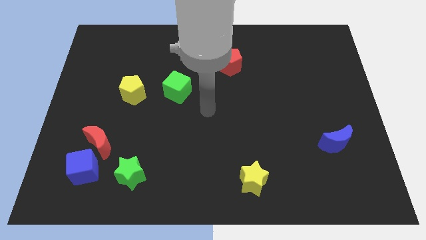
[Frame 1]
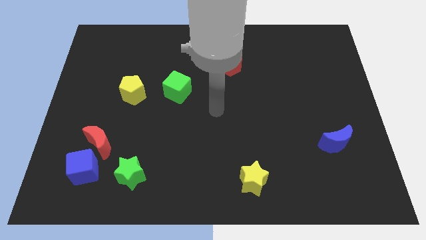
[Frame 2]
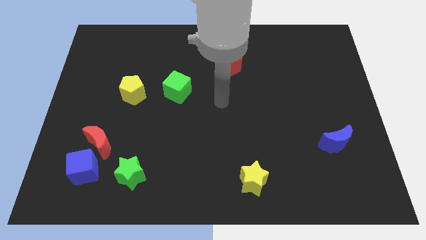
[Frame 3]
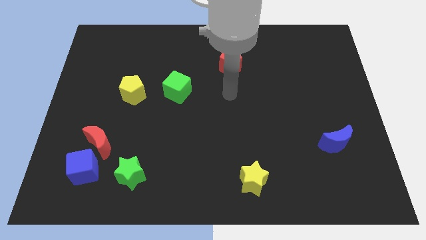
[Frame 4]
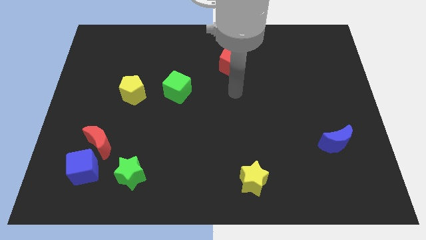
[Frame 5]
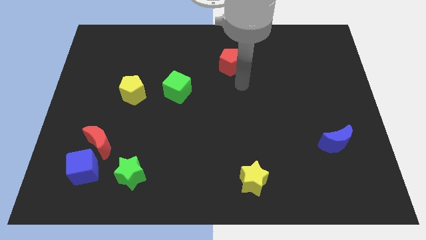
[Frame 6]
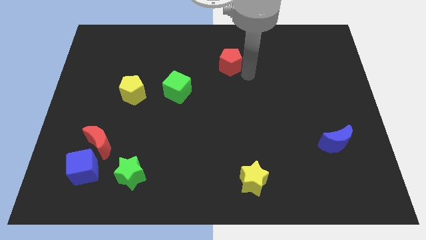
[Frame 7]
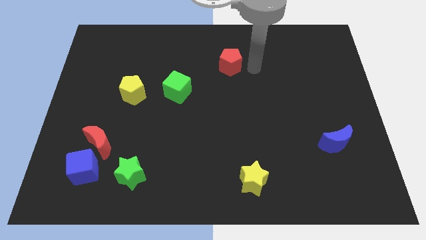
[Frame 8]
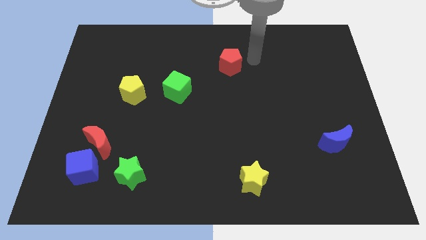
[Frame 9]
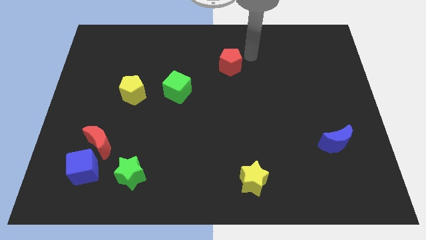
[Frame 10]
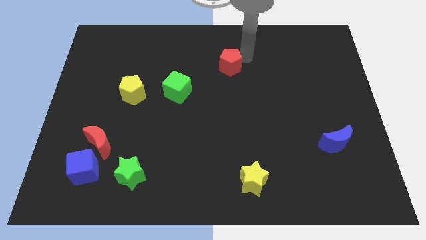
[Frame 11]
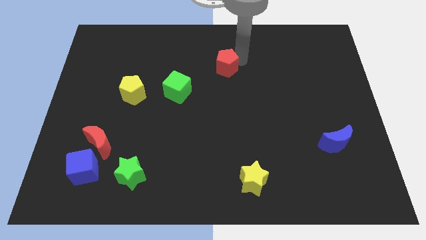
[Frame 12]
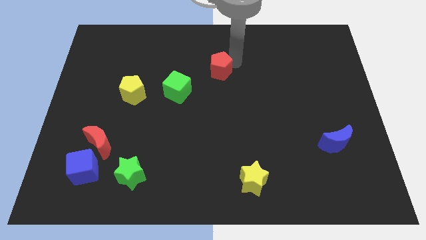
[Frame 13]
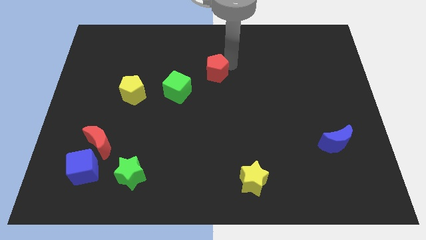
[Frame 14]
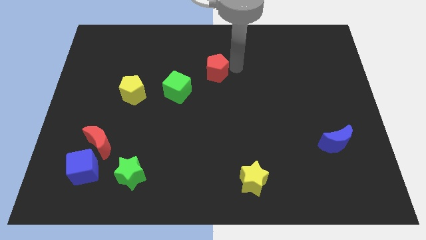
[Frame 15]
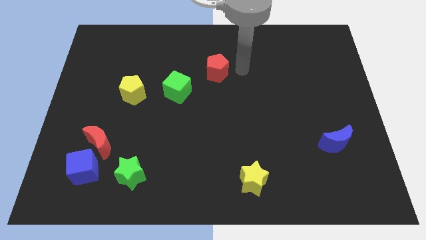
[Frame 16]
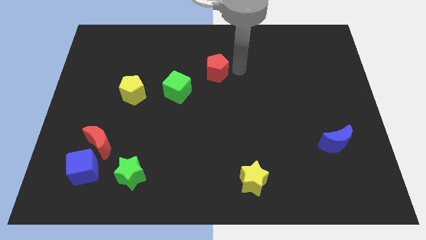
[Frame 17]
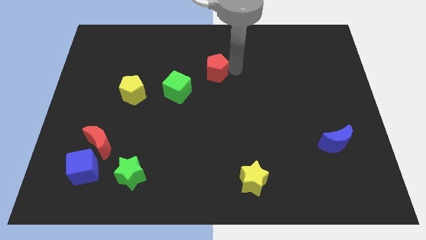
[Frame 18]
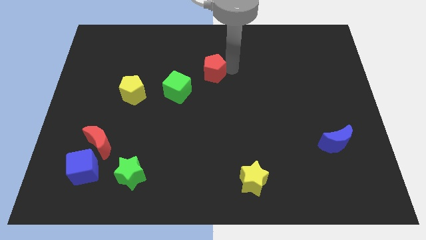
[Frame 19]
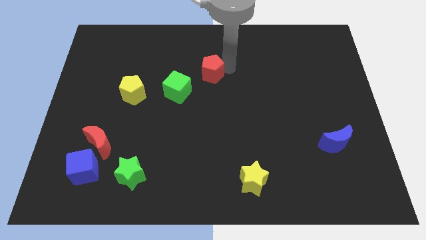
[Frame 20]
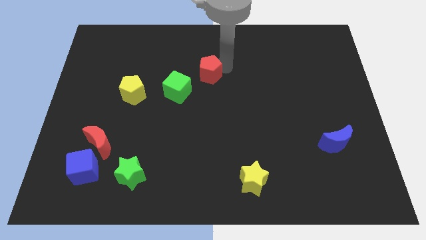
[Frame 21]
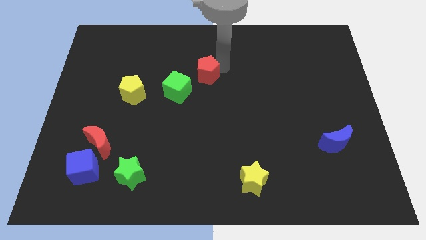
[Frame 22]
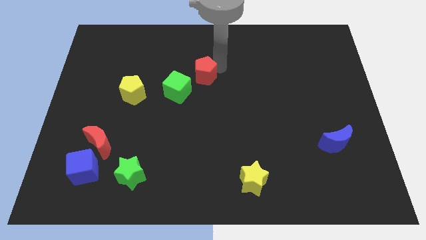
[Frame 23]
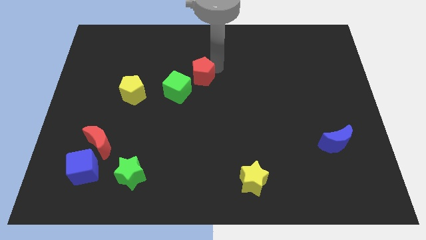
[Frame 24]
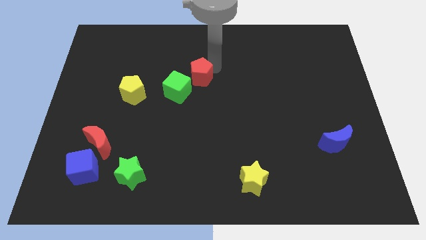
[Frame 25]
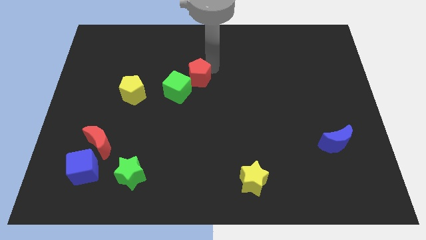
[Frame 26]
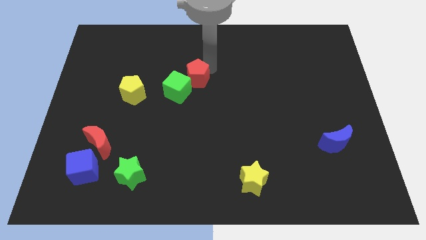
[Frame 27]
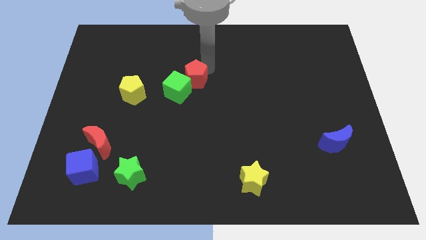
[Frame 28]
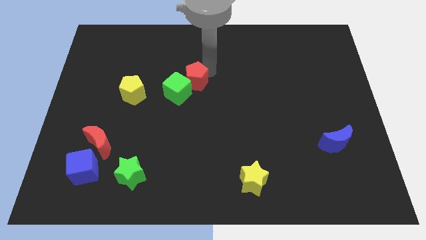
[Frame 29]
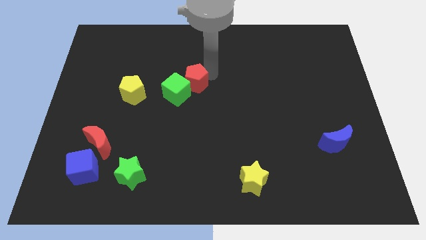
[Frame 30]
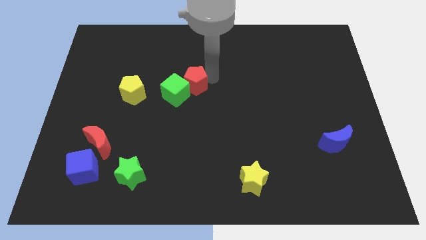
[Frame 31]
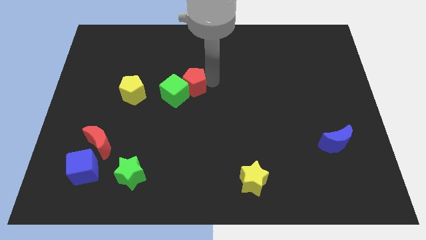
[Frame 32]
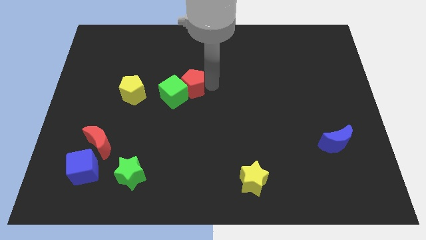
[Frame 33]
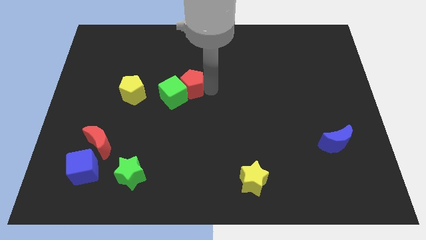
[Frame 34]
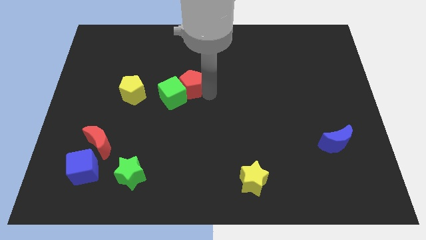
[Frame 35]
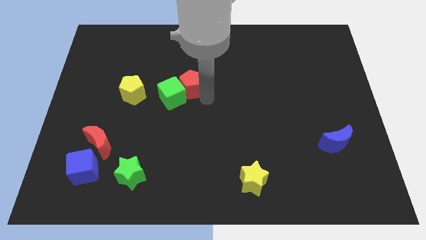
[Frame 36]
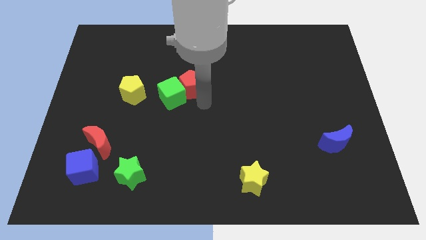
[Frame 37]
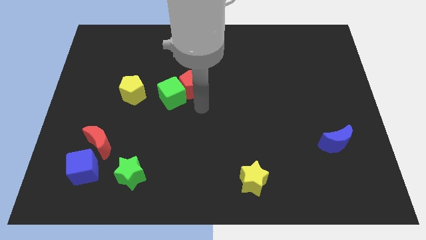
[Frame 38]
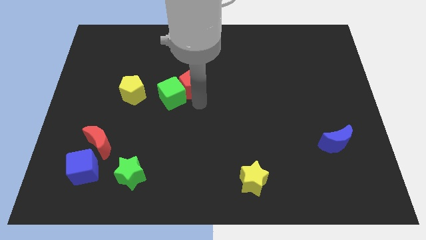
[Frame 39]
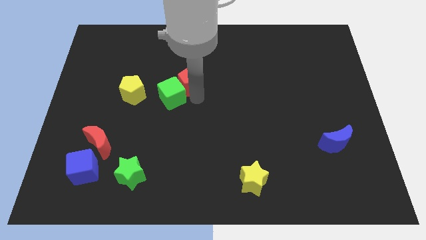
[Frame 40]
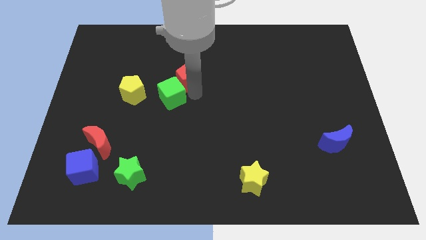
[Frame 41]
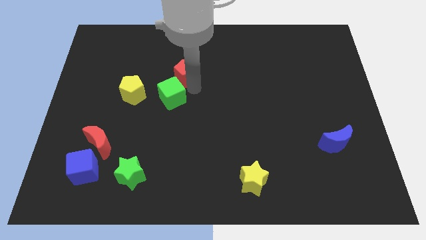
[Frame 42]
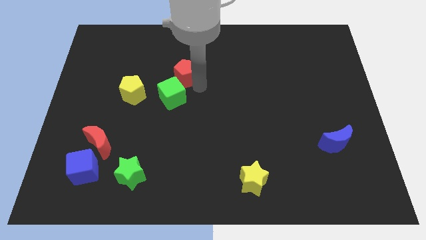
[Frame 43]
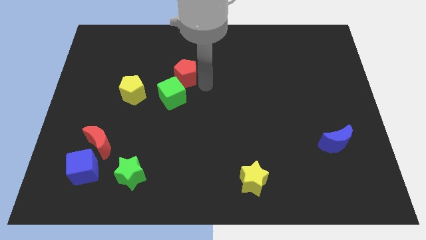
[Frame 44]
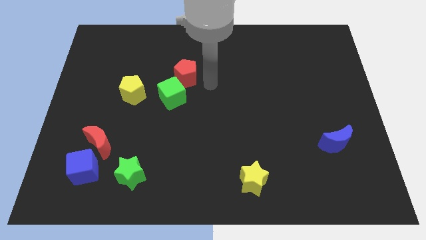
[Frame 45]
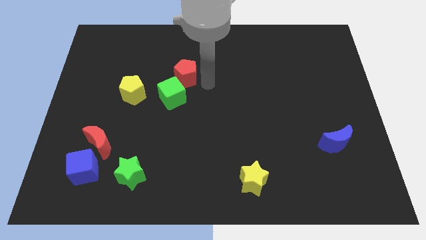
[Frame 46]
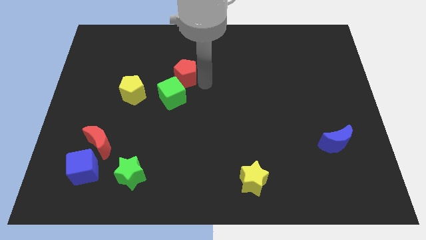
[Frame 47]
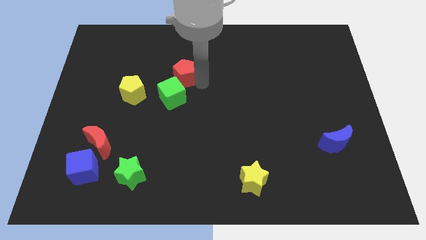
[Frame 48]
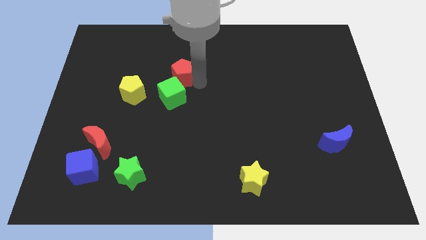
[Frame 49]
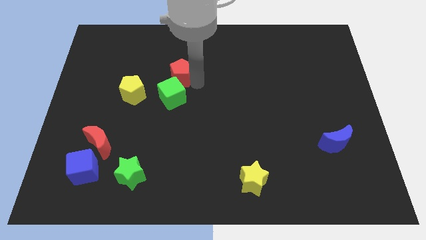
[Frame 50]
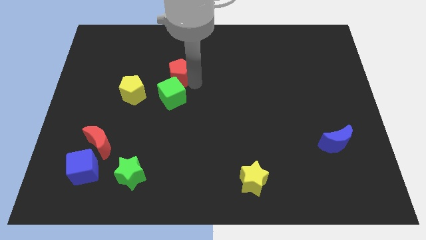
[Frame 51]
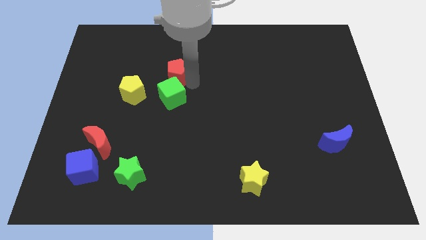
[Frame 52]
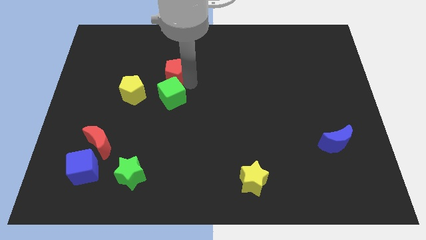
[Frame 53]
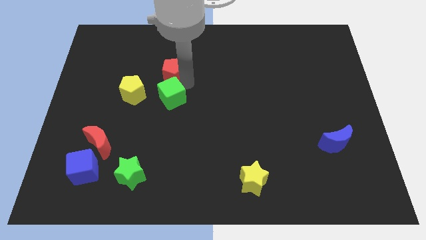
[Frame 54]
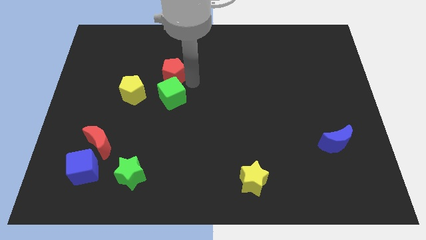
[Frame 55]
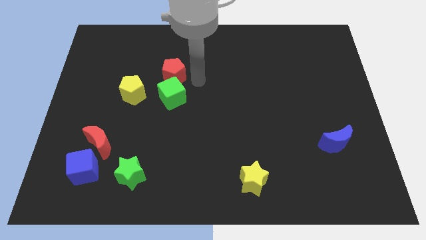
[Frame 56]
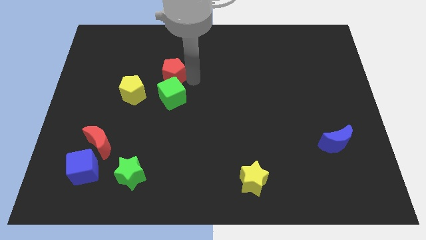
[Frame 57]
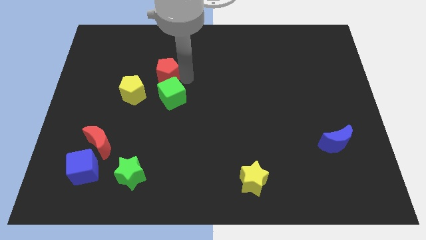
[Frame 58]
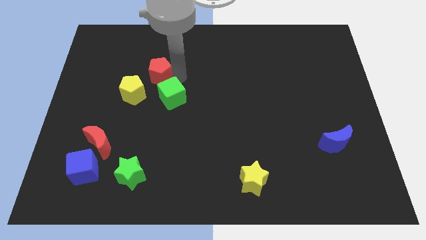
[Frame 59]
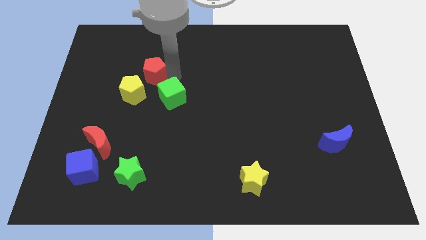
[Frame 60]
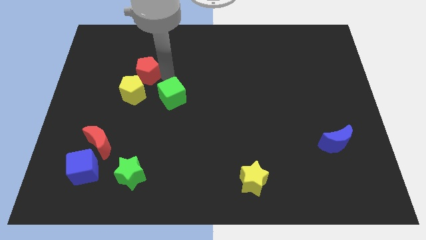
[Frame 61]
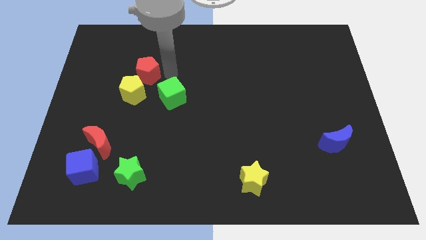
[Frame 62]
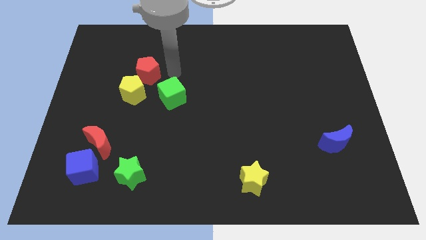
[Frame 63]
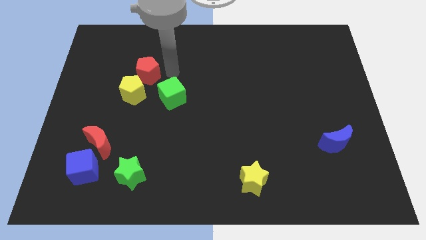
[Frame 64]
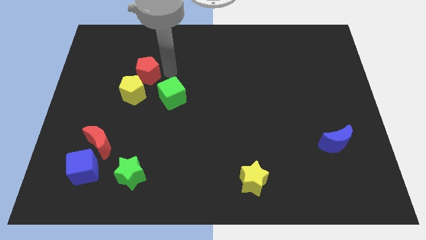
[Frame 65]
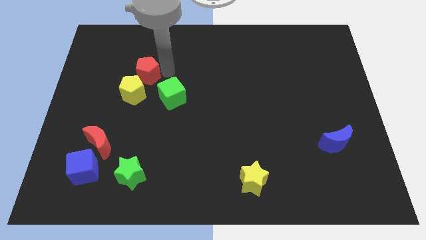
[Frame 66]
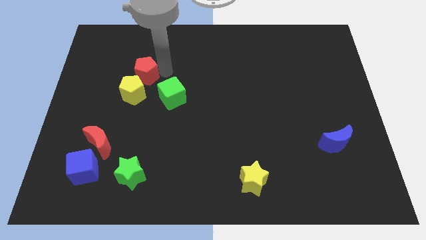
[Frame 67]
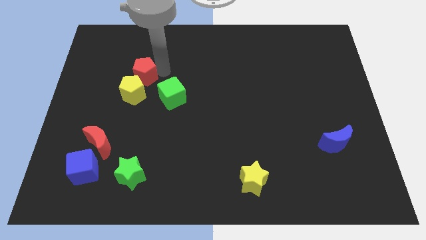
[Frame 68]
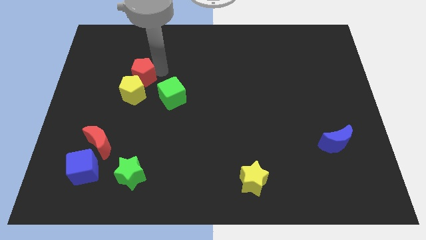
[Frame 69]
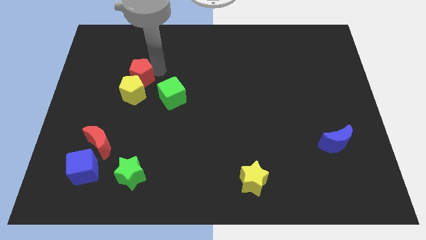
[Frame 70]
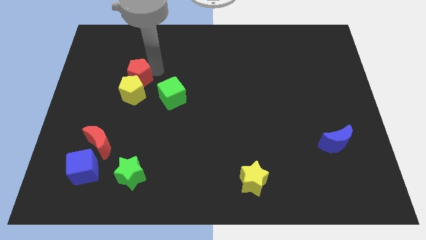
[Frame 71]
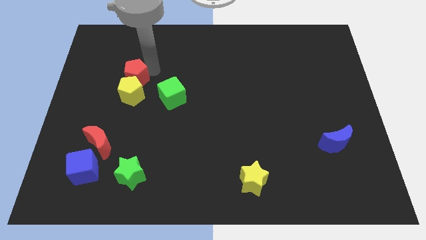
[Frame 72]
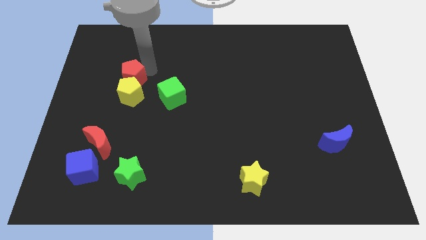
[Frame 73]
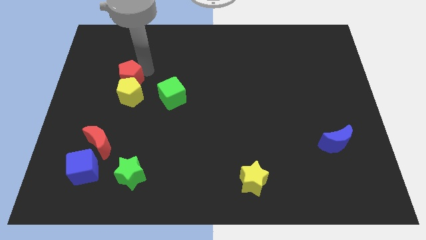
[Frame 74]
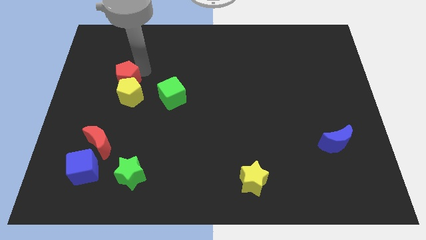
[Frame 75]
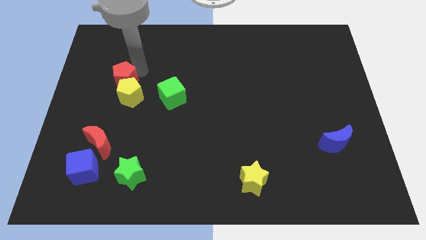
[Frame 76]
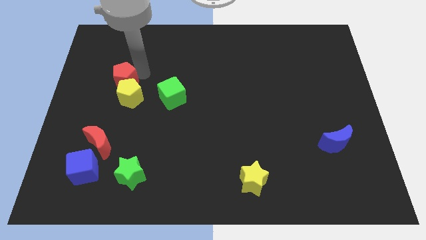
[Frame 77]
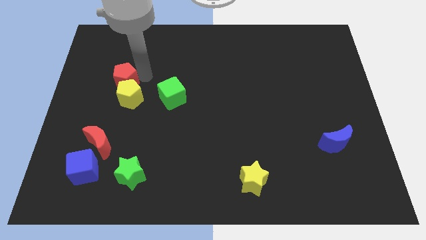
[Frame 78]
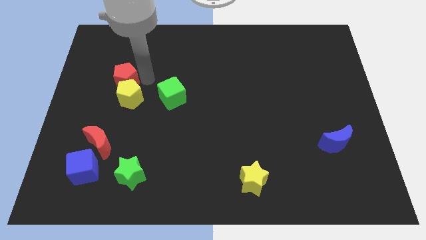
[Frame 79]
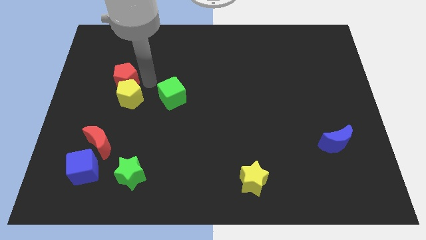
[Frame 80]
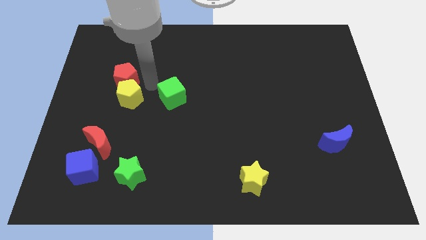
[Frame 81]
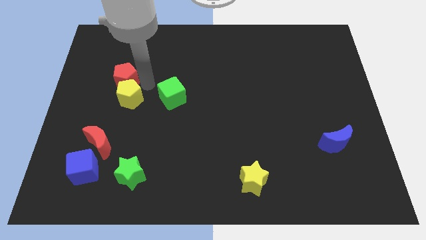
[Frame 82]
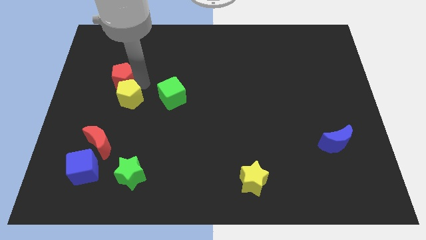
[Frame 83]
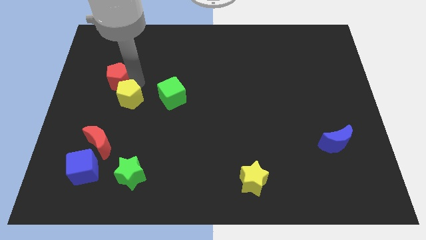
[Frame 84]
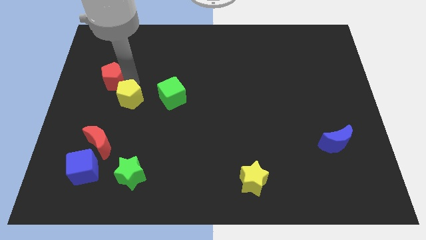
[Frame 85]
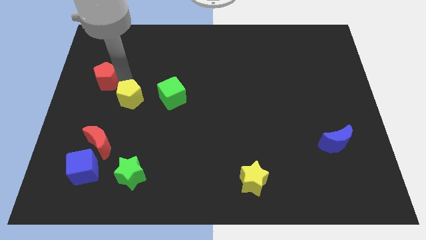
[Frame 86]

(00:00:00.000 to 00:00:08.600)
slide the red pentagon to the left side
